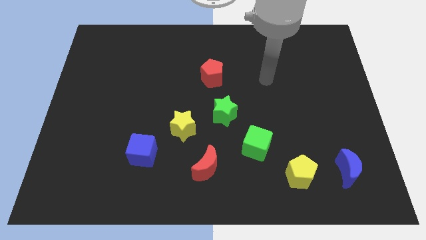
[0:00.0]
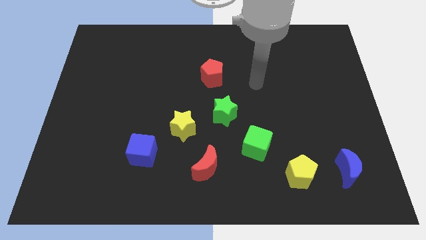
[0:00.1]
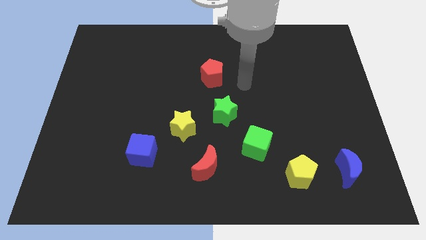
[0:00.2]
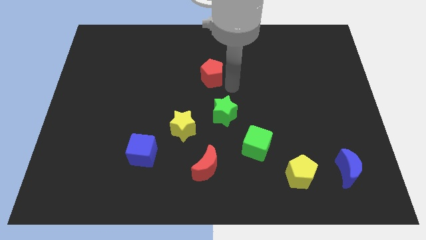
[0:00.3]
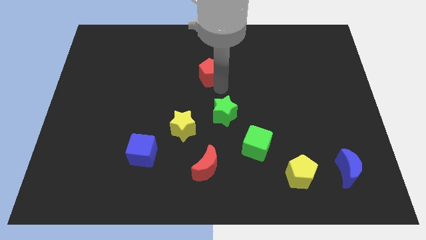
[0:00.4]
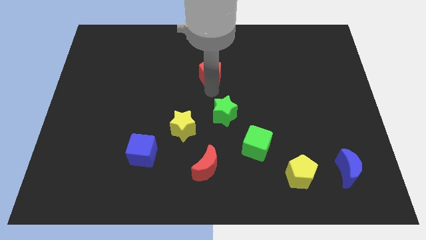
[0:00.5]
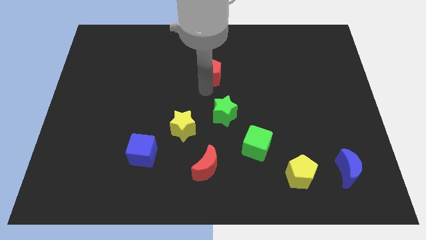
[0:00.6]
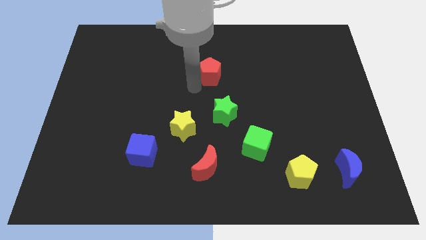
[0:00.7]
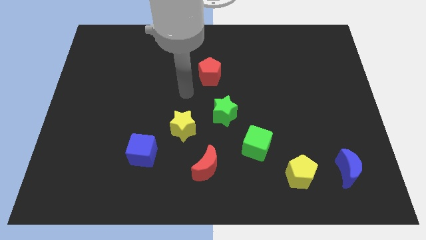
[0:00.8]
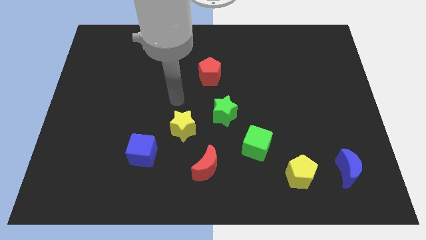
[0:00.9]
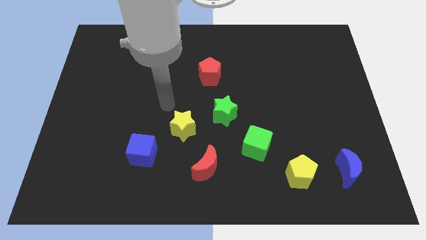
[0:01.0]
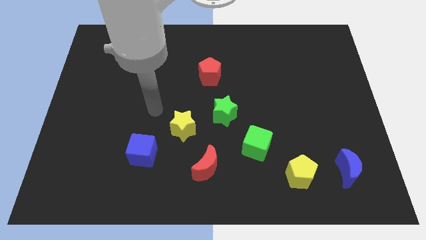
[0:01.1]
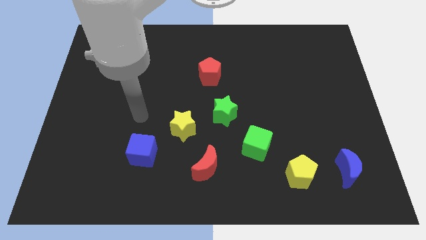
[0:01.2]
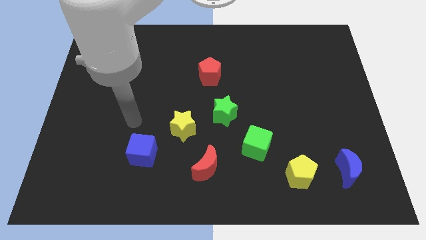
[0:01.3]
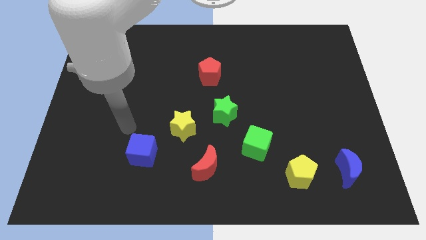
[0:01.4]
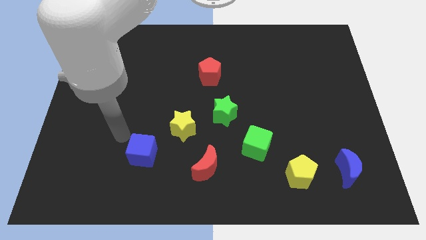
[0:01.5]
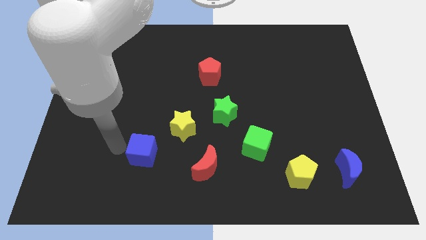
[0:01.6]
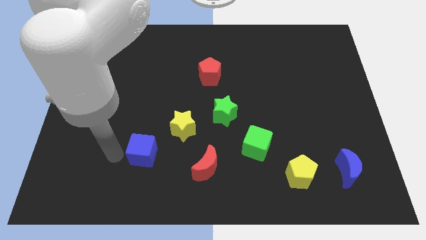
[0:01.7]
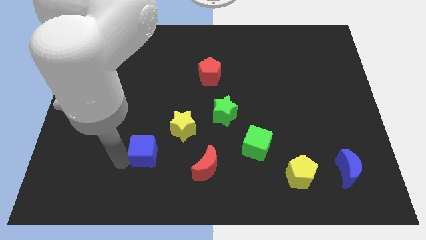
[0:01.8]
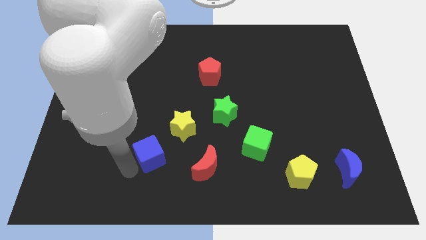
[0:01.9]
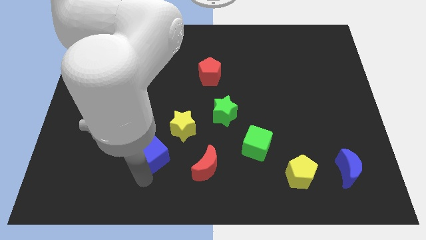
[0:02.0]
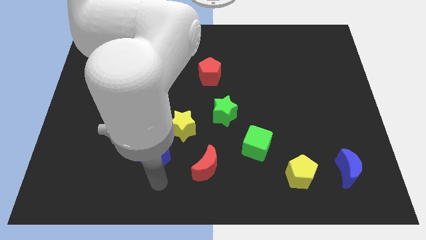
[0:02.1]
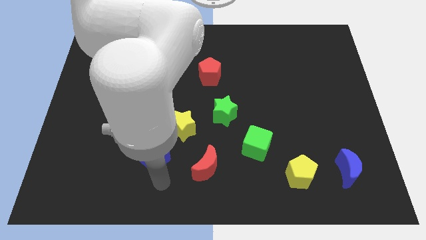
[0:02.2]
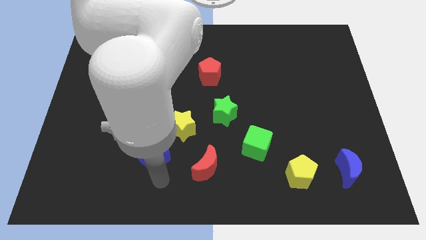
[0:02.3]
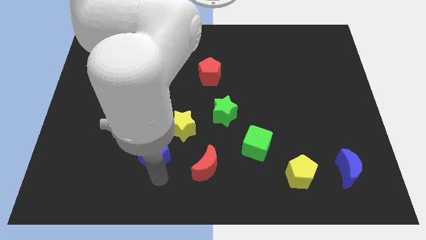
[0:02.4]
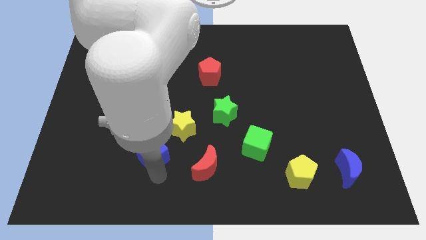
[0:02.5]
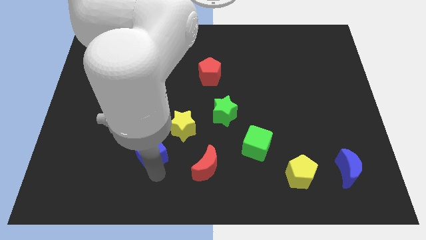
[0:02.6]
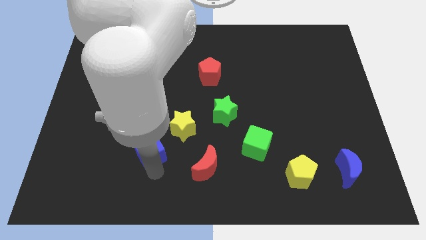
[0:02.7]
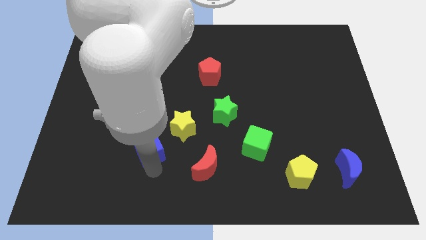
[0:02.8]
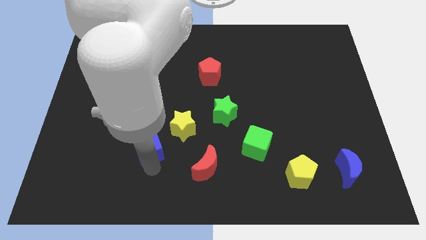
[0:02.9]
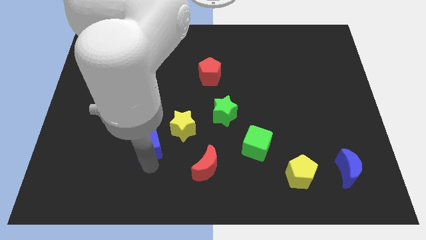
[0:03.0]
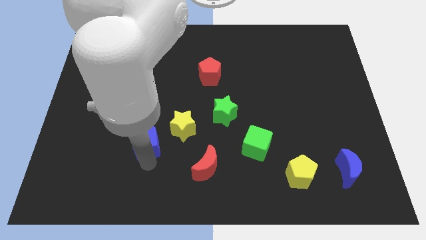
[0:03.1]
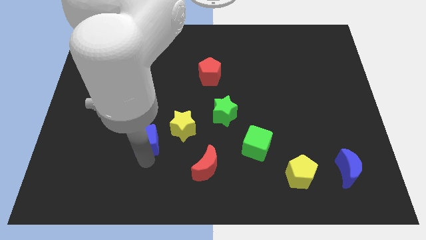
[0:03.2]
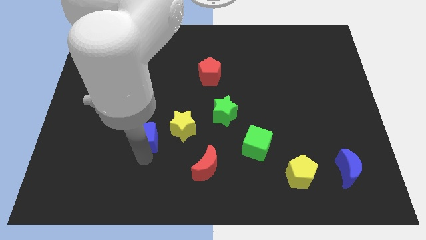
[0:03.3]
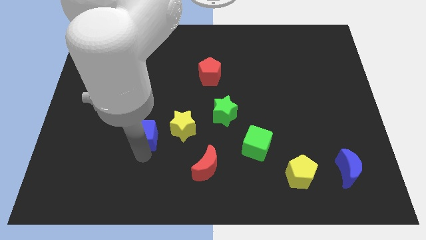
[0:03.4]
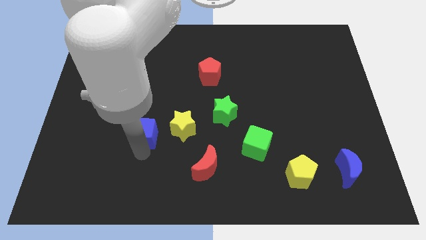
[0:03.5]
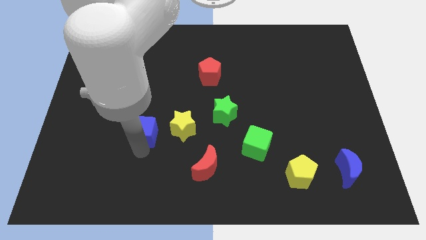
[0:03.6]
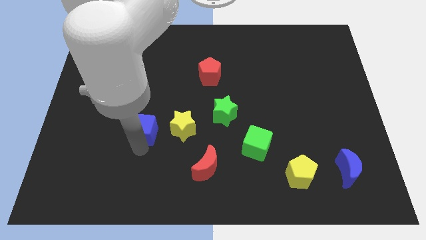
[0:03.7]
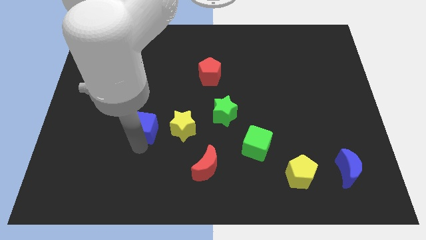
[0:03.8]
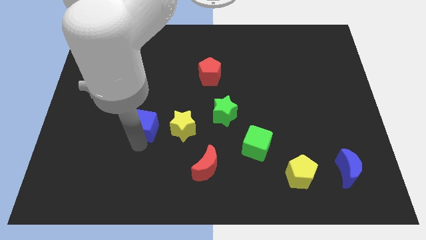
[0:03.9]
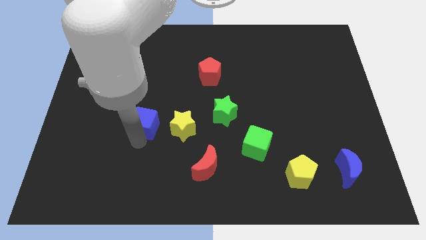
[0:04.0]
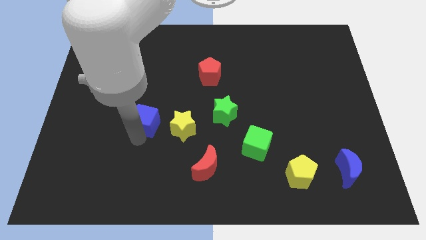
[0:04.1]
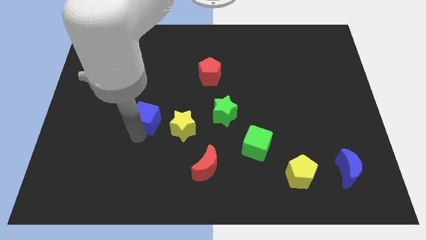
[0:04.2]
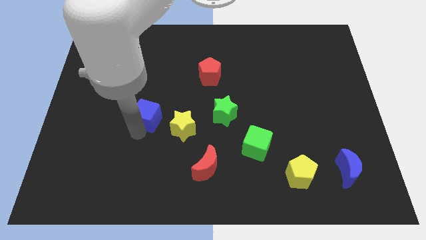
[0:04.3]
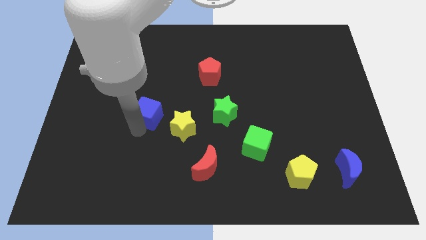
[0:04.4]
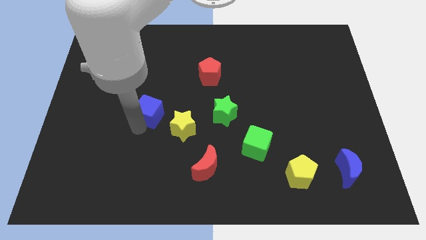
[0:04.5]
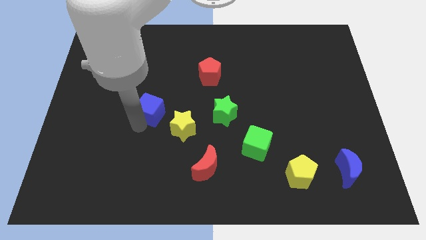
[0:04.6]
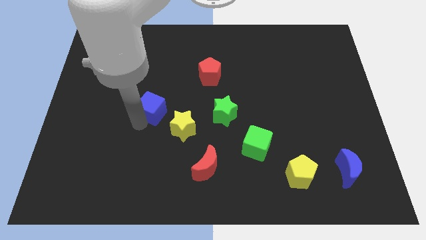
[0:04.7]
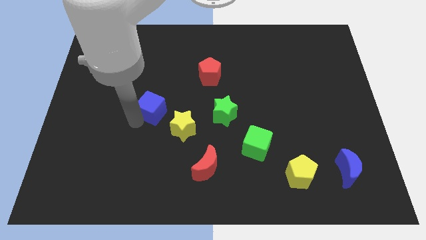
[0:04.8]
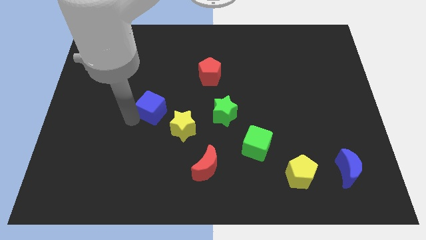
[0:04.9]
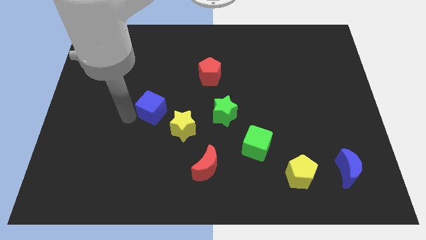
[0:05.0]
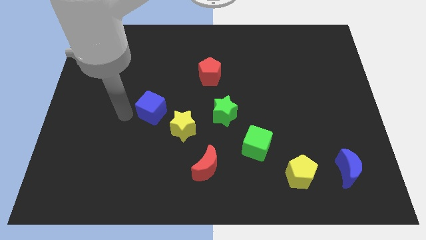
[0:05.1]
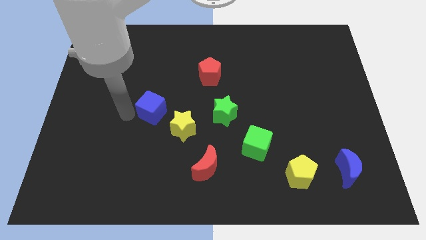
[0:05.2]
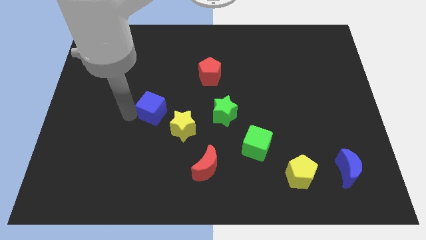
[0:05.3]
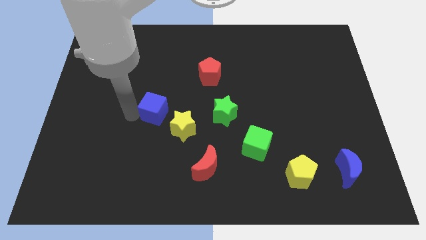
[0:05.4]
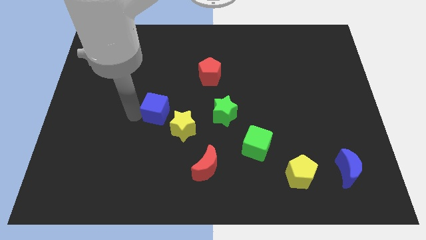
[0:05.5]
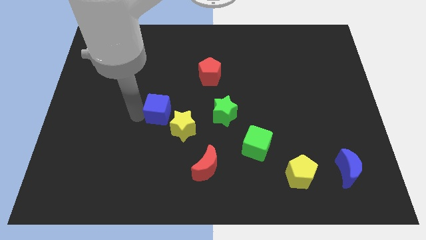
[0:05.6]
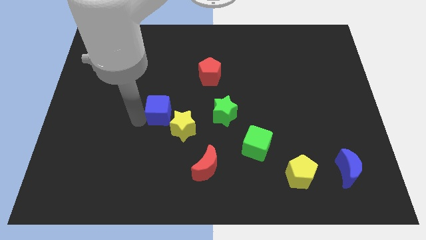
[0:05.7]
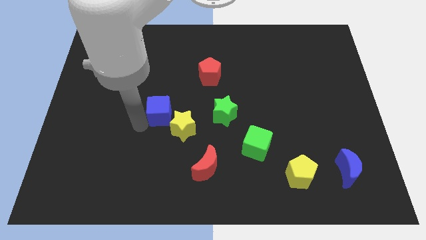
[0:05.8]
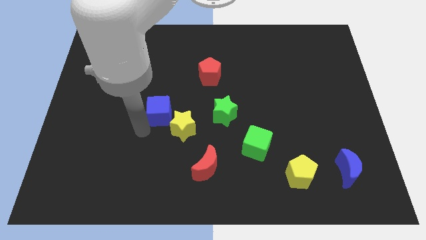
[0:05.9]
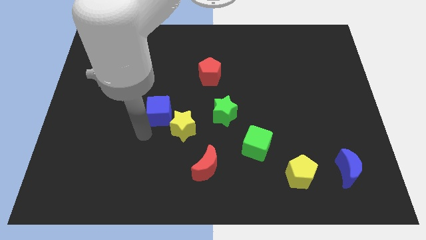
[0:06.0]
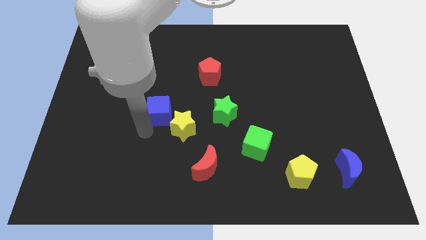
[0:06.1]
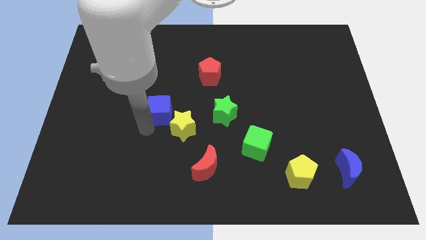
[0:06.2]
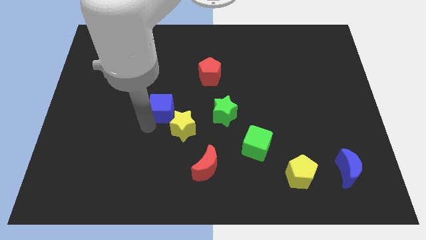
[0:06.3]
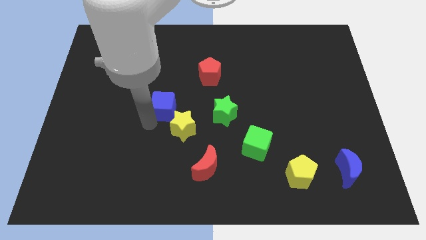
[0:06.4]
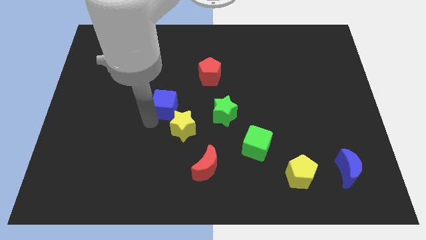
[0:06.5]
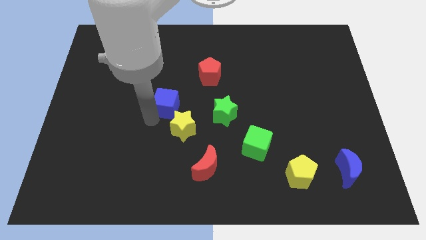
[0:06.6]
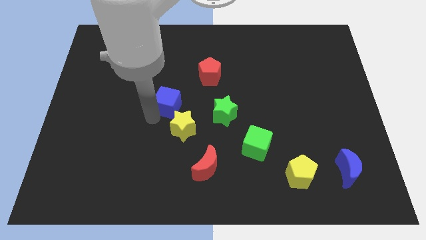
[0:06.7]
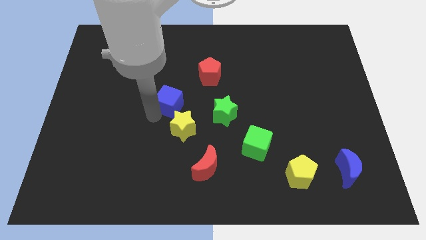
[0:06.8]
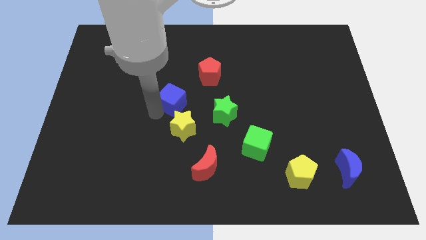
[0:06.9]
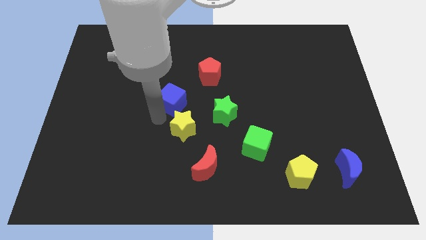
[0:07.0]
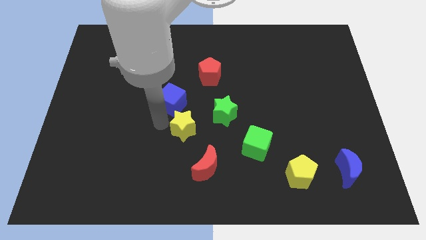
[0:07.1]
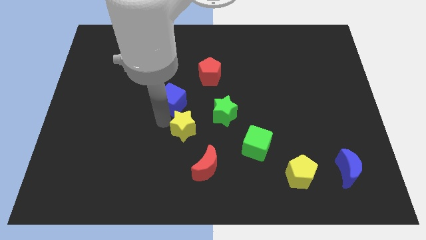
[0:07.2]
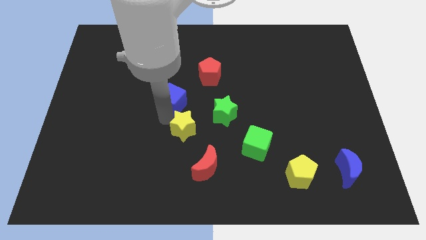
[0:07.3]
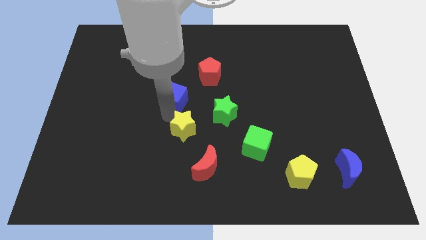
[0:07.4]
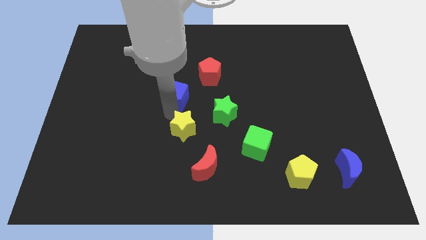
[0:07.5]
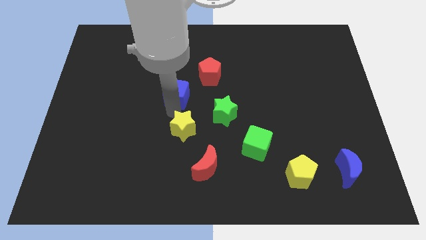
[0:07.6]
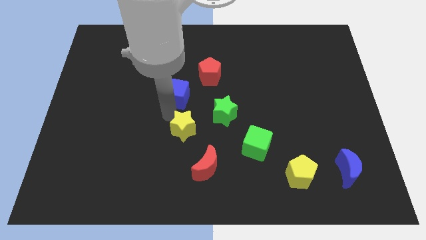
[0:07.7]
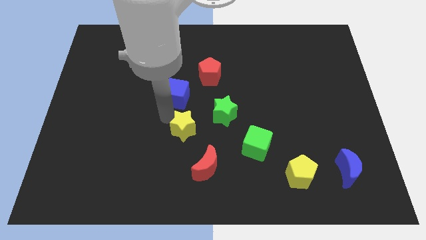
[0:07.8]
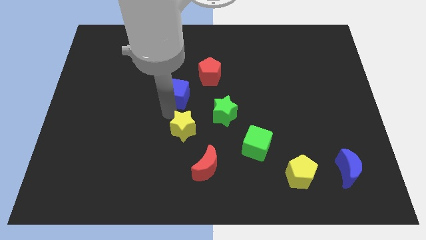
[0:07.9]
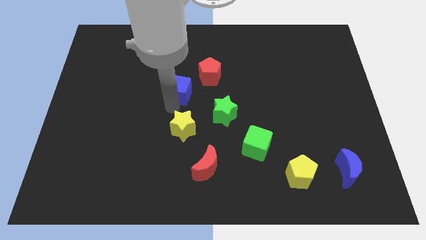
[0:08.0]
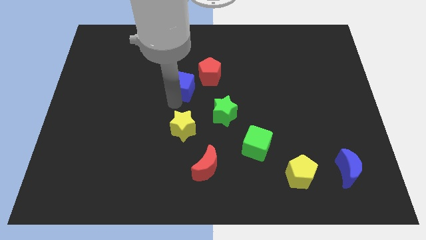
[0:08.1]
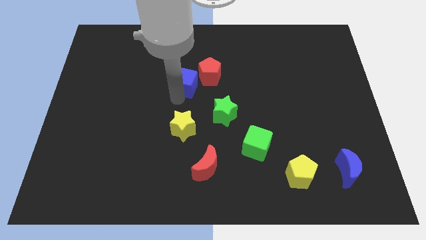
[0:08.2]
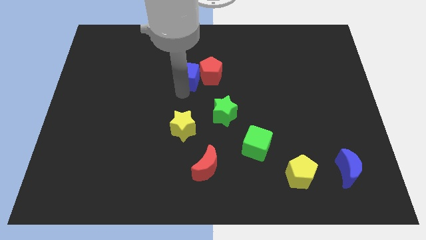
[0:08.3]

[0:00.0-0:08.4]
put the blue cube to the top left side of the red pentagon
